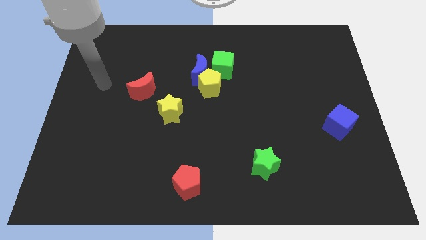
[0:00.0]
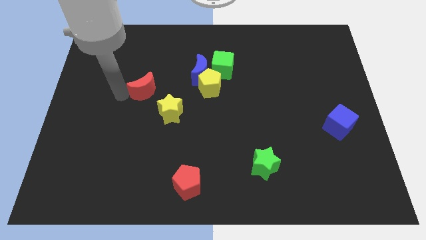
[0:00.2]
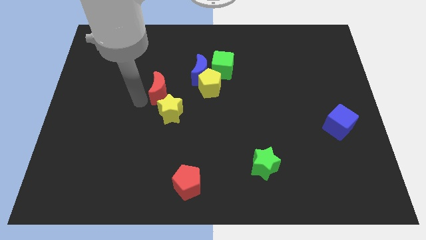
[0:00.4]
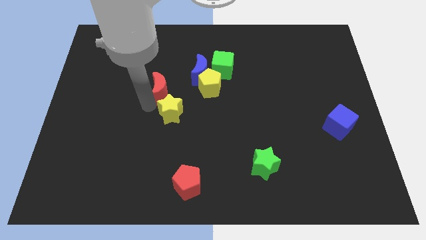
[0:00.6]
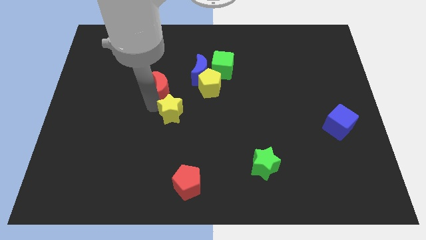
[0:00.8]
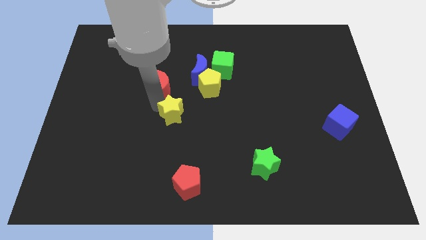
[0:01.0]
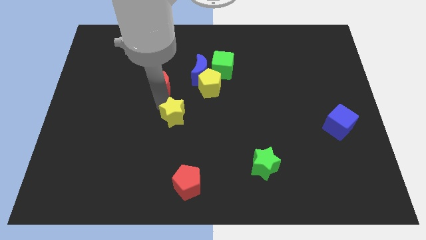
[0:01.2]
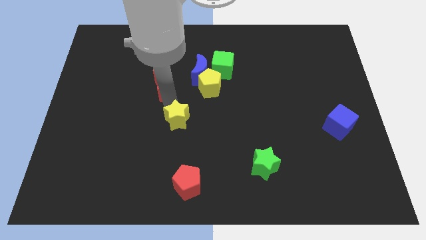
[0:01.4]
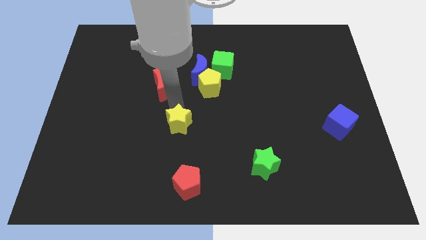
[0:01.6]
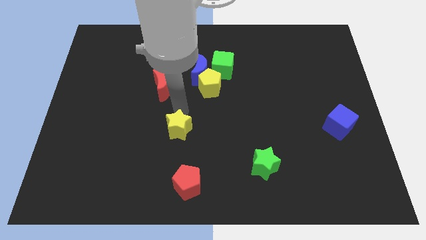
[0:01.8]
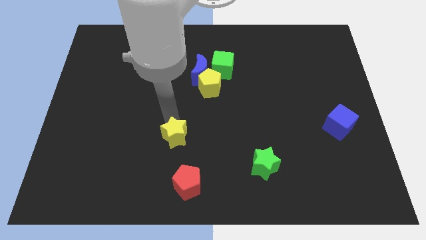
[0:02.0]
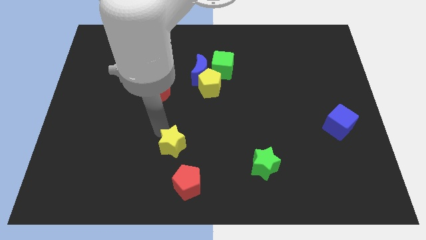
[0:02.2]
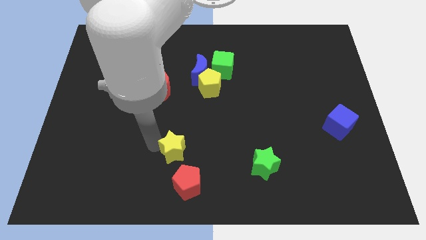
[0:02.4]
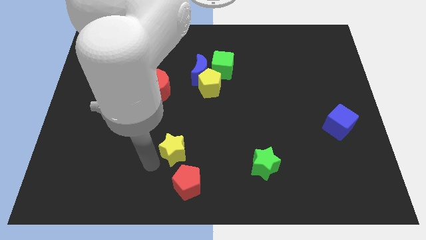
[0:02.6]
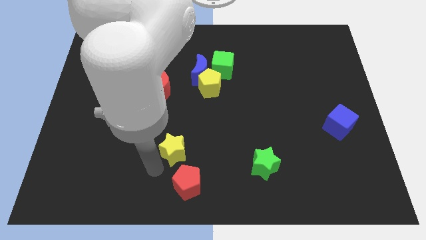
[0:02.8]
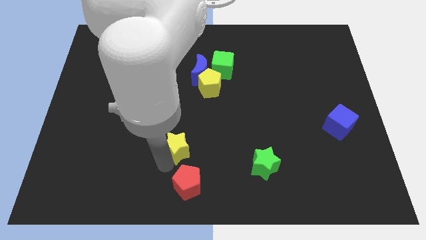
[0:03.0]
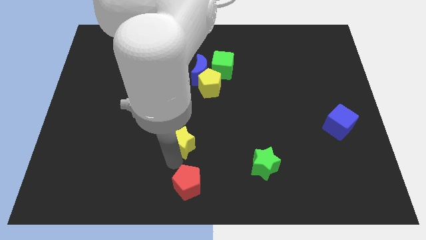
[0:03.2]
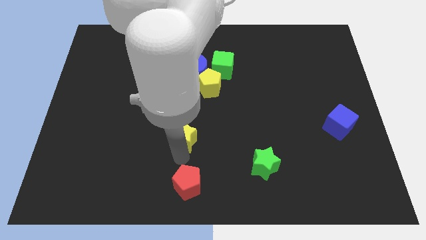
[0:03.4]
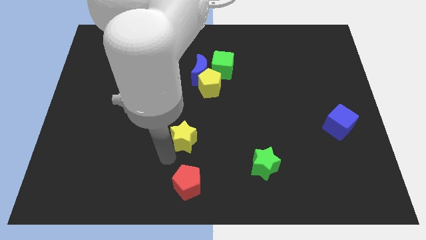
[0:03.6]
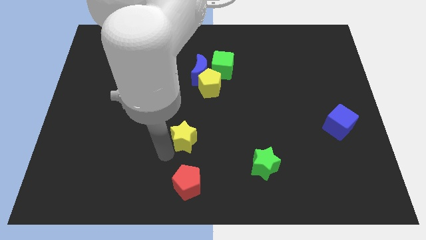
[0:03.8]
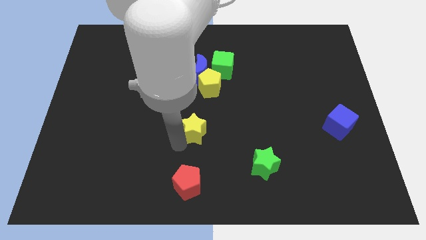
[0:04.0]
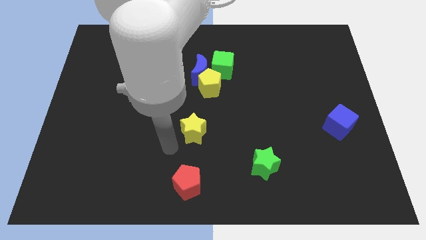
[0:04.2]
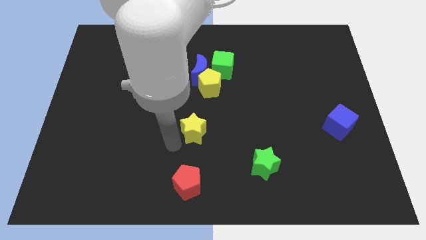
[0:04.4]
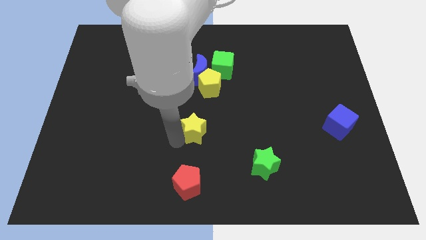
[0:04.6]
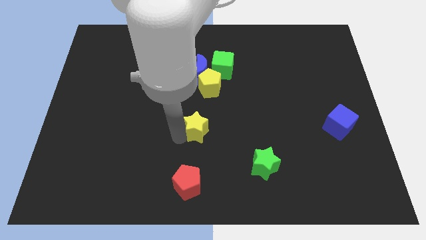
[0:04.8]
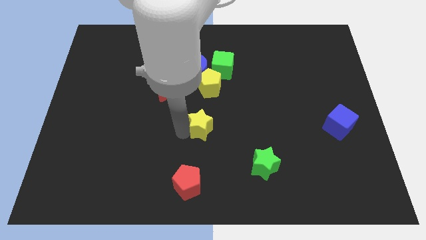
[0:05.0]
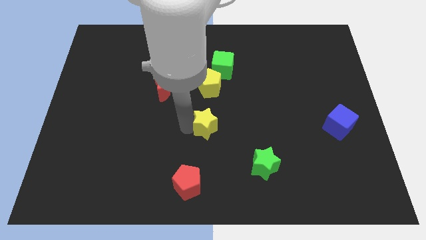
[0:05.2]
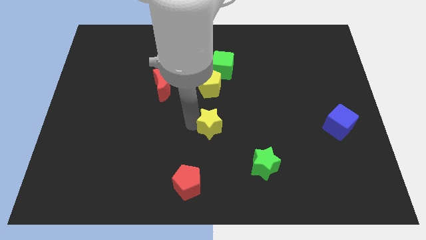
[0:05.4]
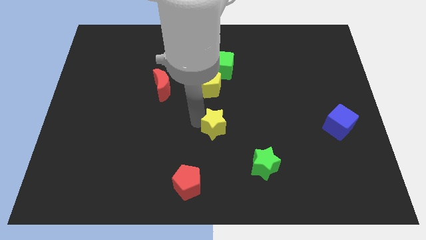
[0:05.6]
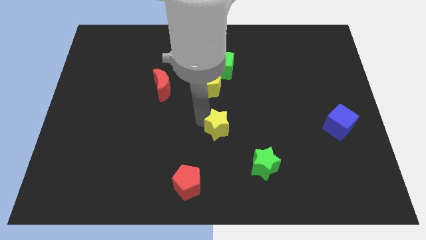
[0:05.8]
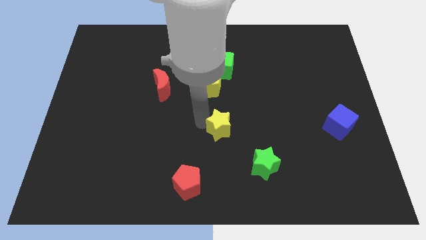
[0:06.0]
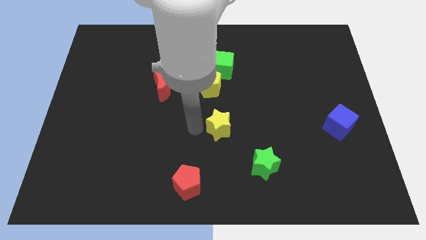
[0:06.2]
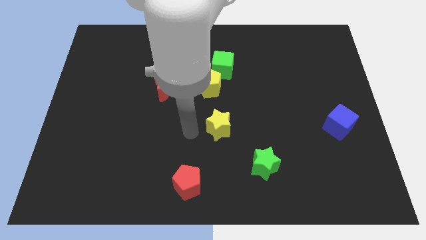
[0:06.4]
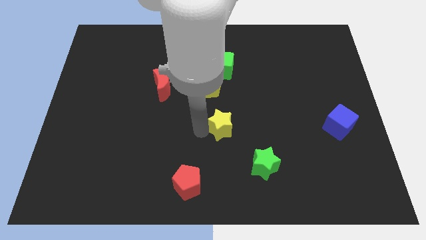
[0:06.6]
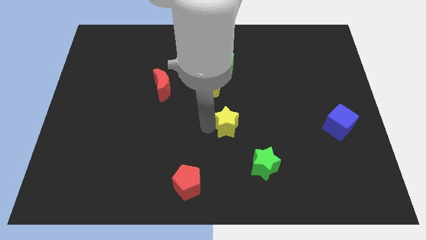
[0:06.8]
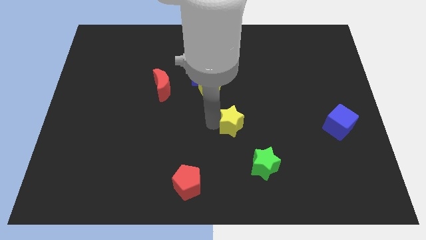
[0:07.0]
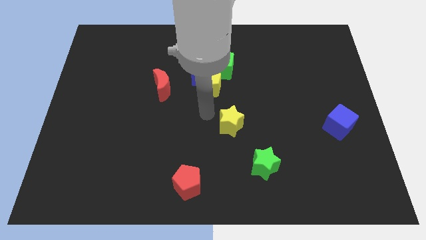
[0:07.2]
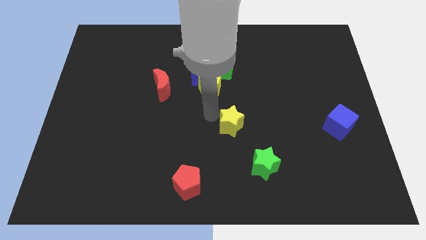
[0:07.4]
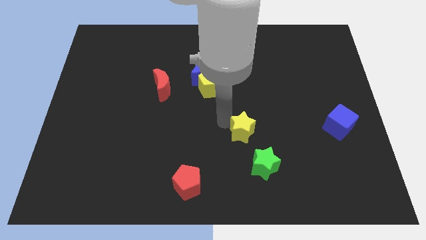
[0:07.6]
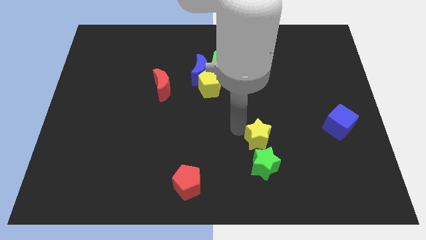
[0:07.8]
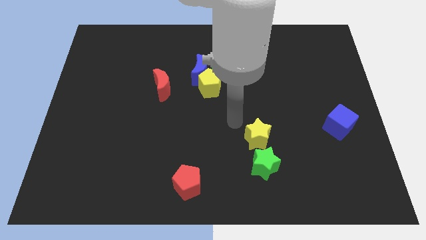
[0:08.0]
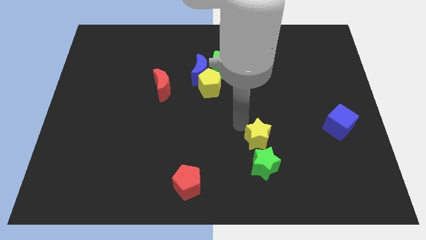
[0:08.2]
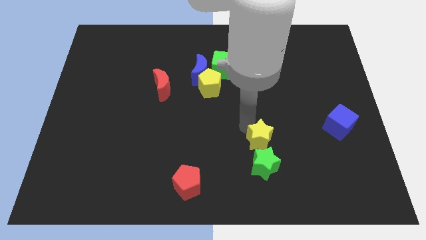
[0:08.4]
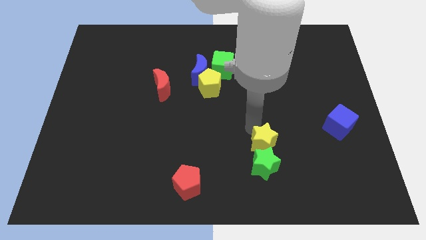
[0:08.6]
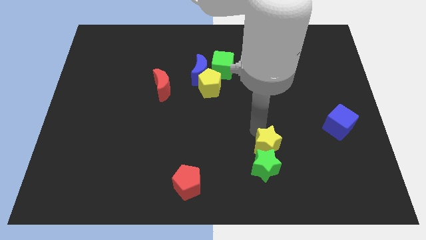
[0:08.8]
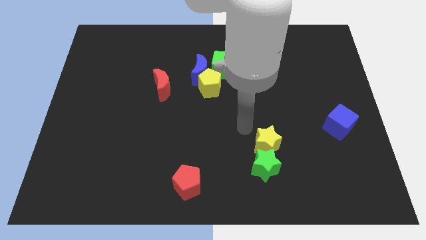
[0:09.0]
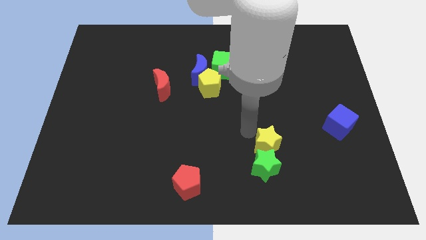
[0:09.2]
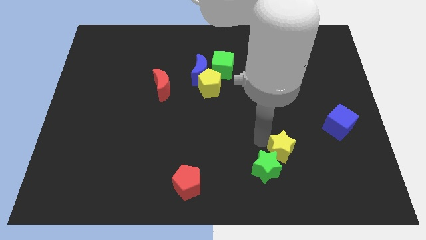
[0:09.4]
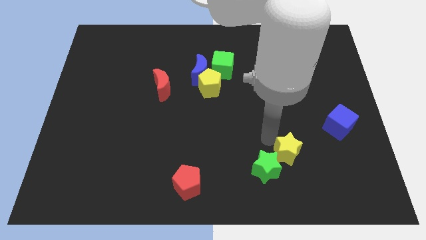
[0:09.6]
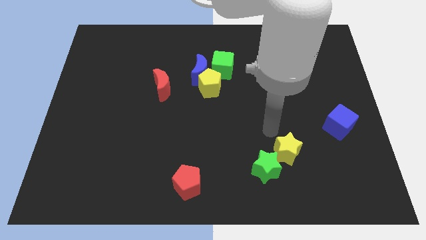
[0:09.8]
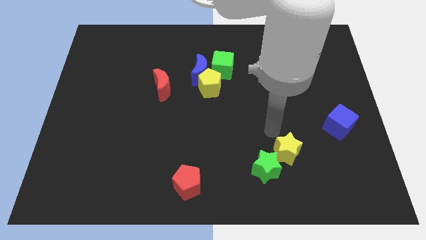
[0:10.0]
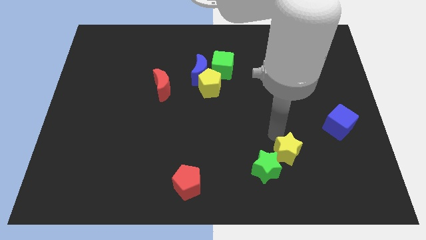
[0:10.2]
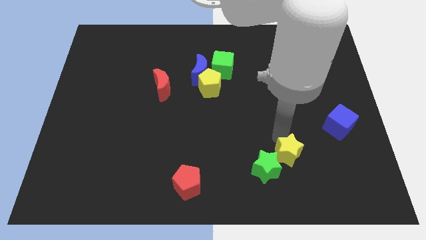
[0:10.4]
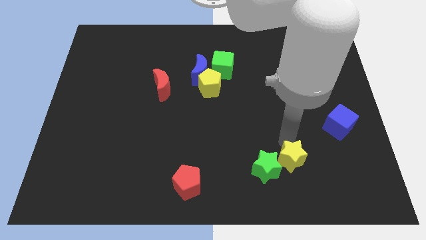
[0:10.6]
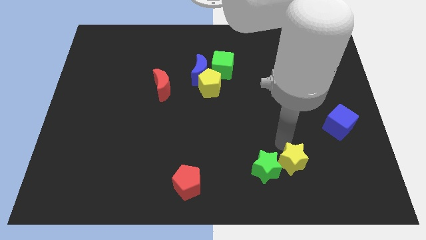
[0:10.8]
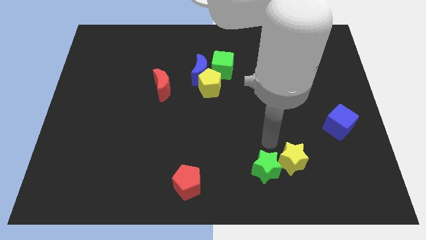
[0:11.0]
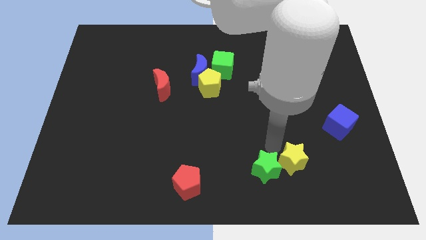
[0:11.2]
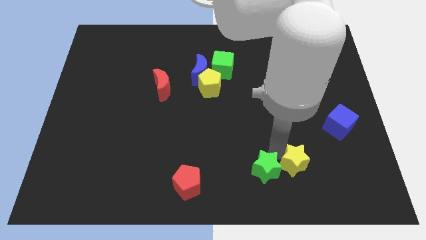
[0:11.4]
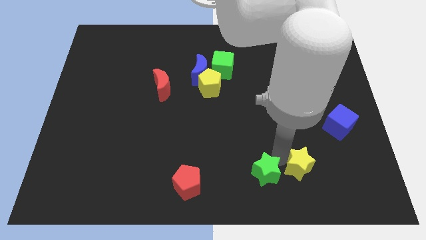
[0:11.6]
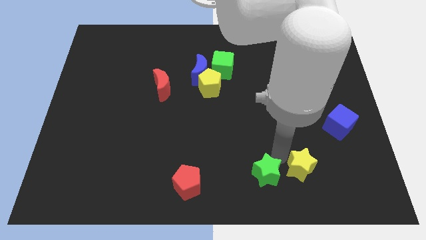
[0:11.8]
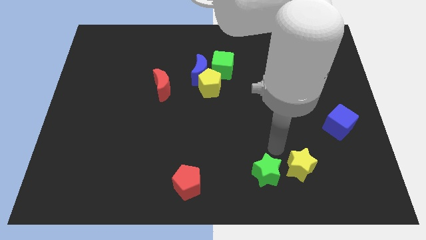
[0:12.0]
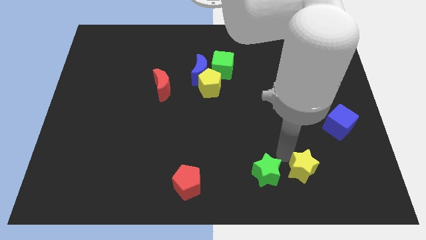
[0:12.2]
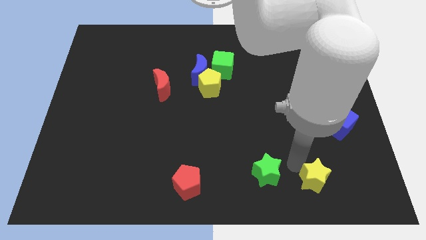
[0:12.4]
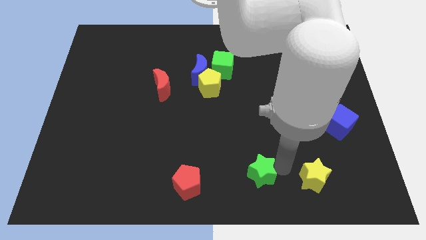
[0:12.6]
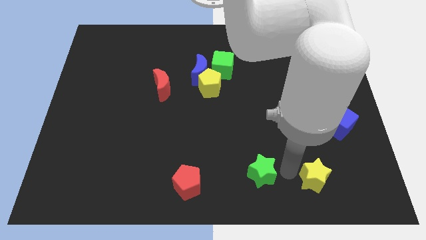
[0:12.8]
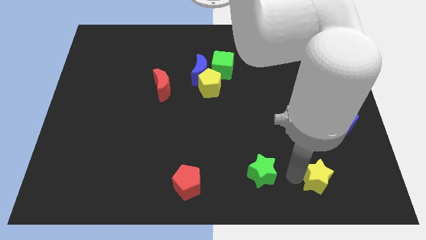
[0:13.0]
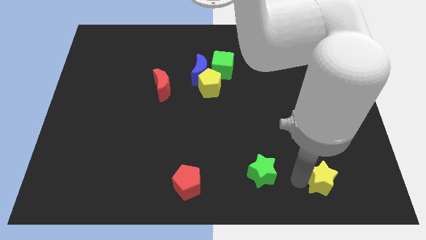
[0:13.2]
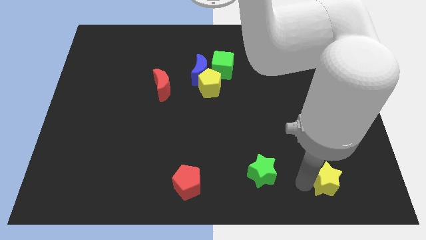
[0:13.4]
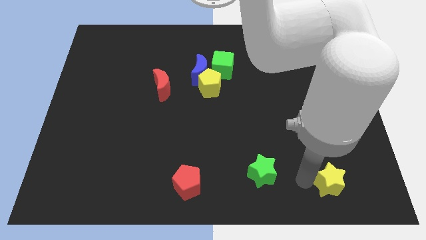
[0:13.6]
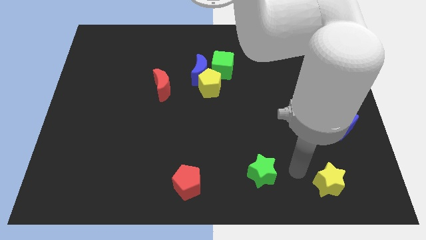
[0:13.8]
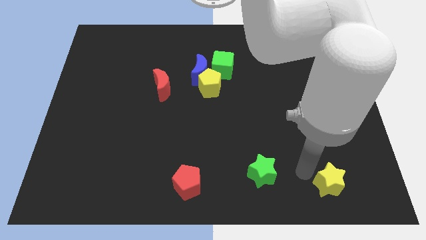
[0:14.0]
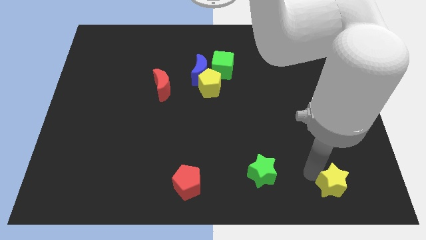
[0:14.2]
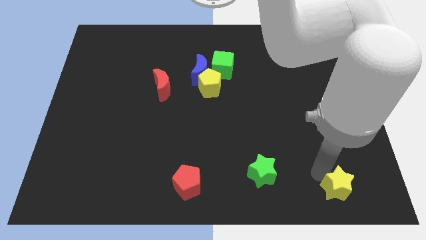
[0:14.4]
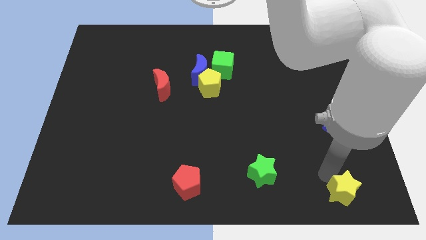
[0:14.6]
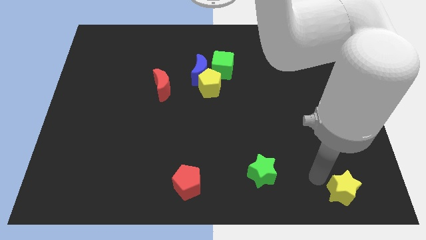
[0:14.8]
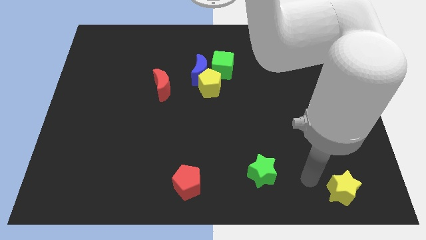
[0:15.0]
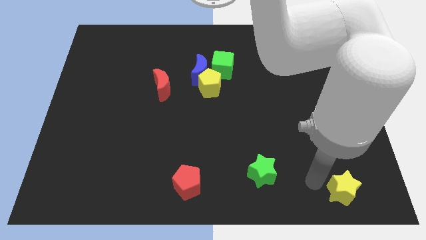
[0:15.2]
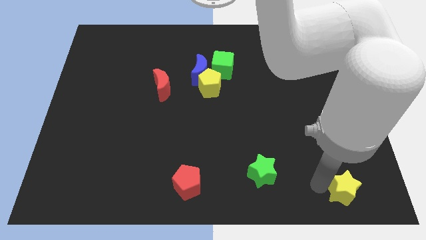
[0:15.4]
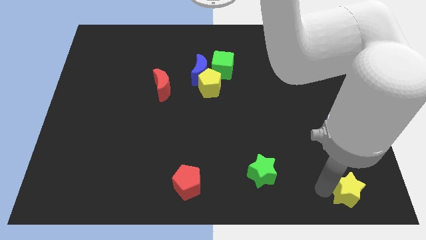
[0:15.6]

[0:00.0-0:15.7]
put the yellow star to the bottom right corner
